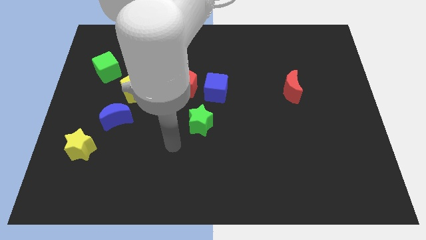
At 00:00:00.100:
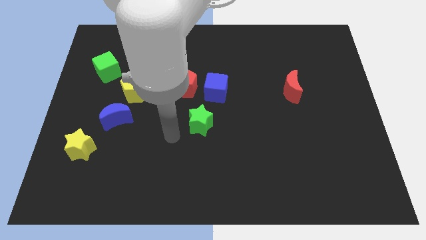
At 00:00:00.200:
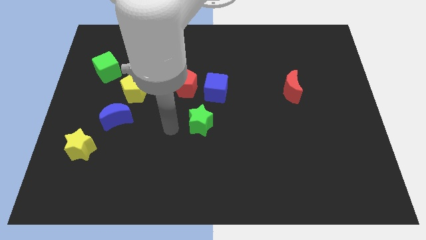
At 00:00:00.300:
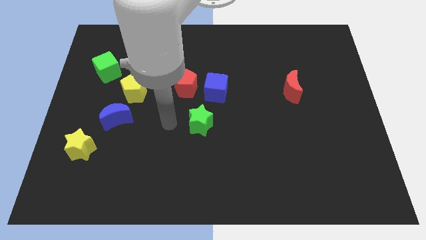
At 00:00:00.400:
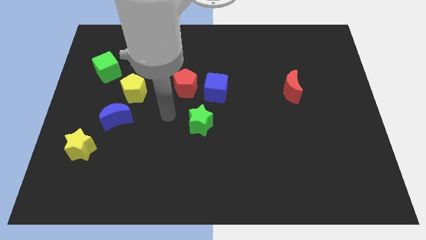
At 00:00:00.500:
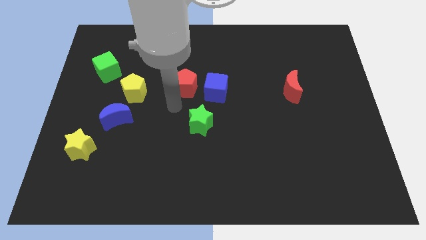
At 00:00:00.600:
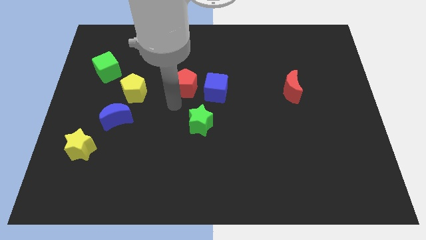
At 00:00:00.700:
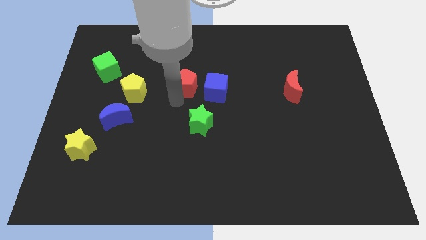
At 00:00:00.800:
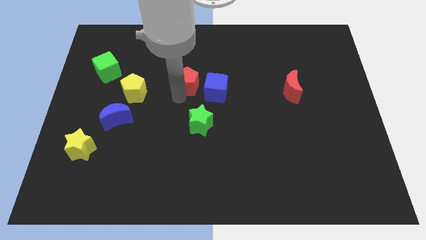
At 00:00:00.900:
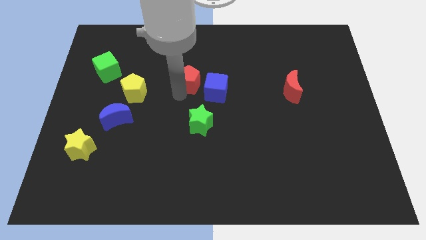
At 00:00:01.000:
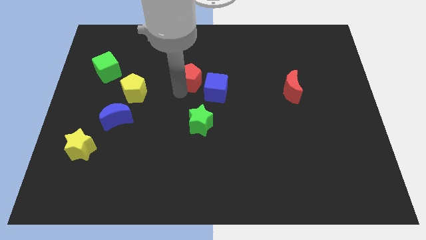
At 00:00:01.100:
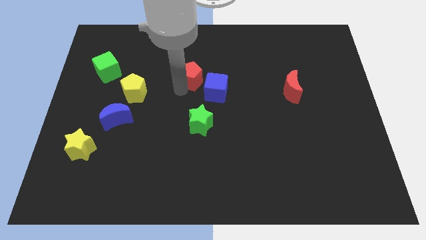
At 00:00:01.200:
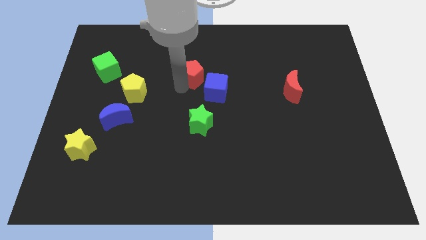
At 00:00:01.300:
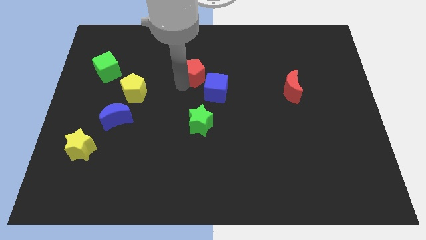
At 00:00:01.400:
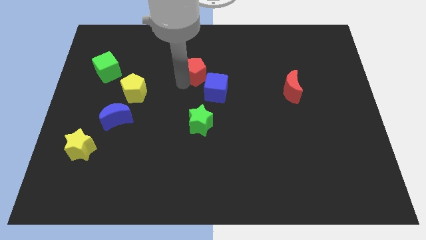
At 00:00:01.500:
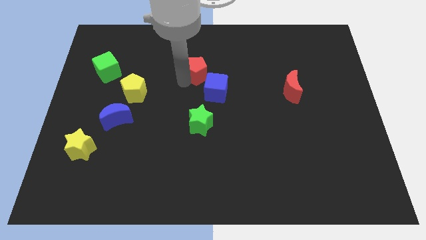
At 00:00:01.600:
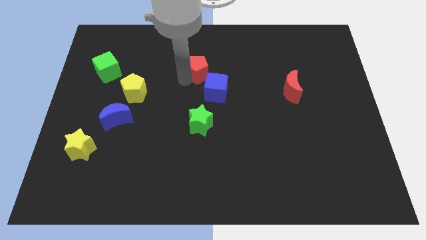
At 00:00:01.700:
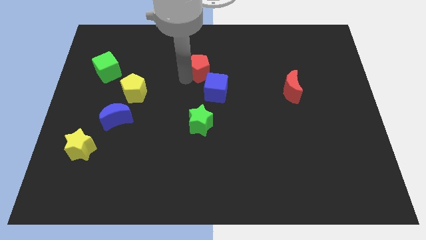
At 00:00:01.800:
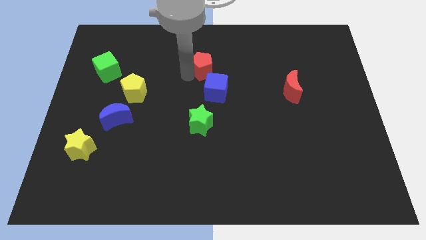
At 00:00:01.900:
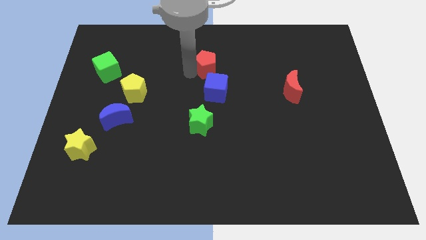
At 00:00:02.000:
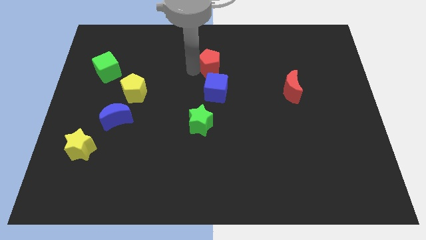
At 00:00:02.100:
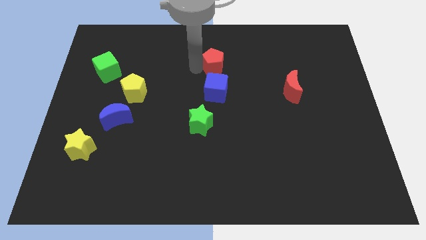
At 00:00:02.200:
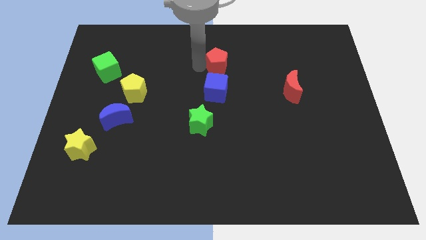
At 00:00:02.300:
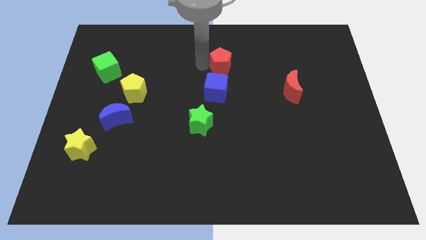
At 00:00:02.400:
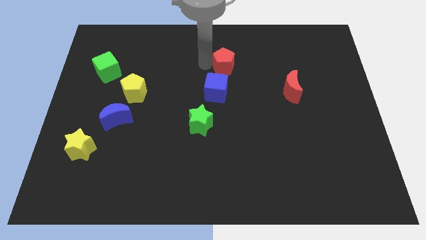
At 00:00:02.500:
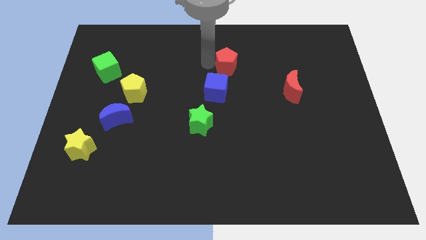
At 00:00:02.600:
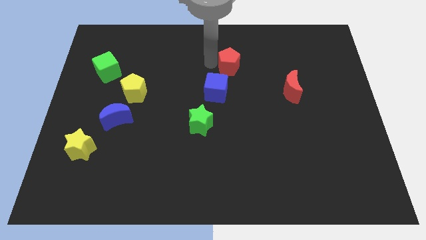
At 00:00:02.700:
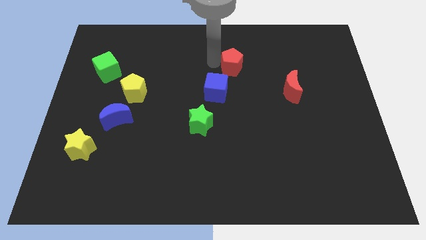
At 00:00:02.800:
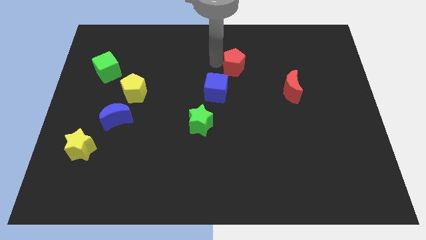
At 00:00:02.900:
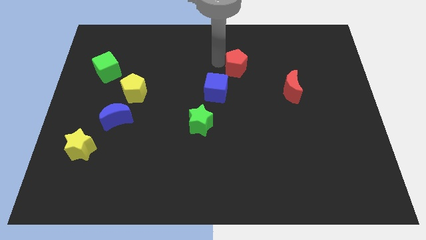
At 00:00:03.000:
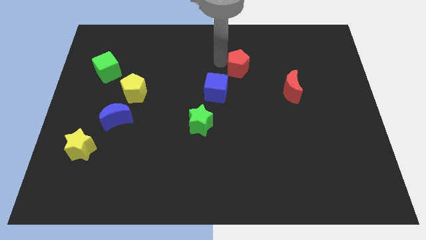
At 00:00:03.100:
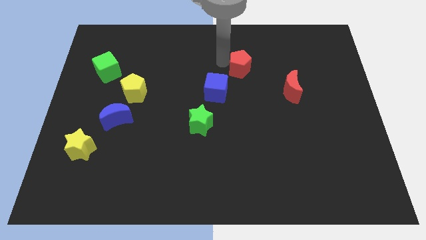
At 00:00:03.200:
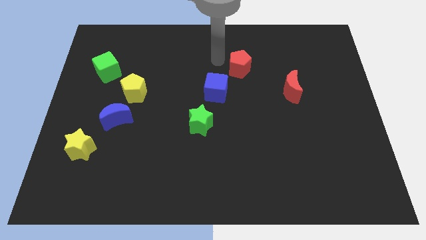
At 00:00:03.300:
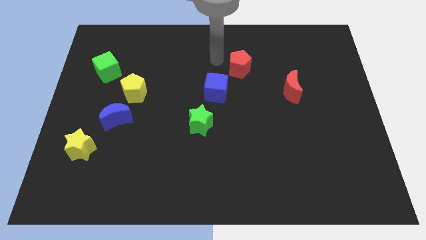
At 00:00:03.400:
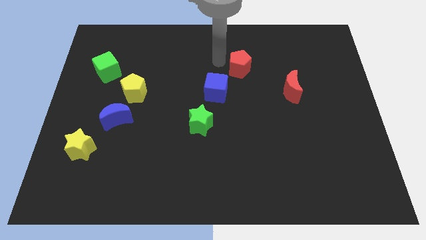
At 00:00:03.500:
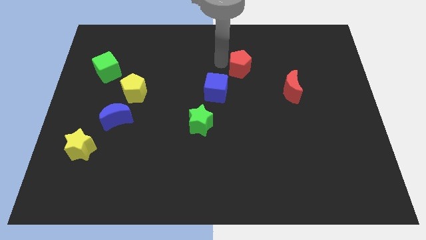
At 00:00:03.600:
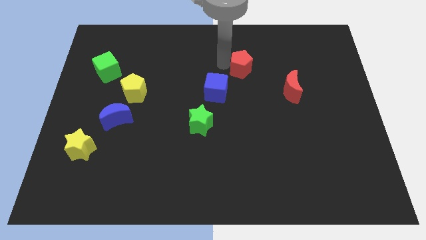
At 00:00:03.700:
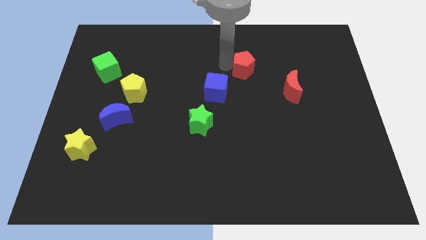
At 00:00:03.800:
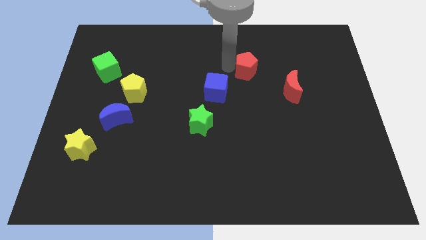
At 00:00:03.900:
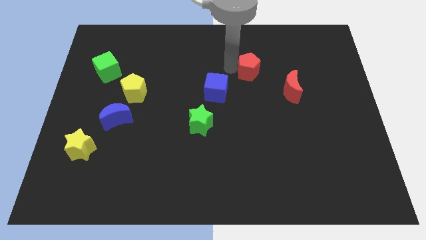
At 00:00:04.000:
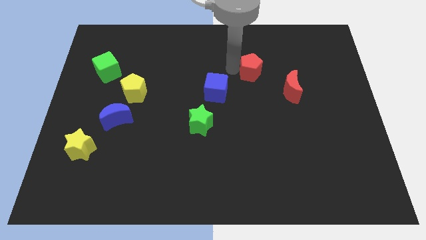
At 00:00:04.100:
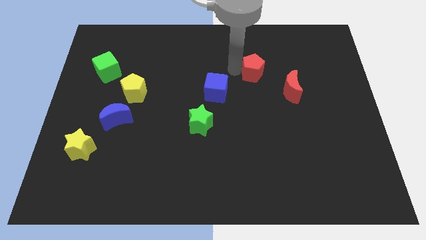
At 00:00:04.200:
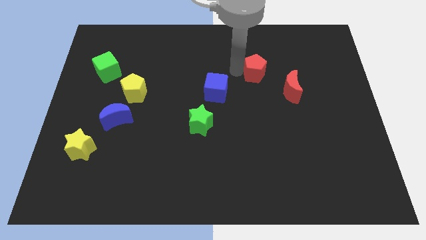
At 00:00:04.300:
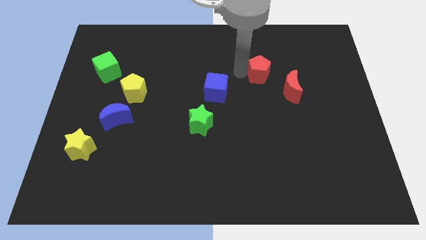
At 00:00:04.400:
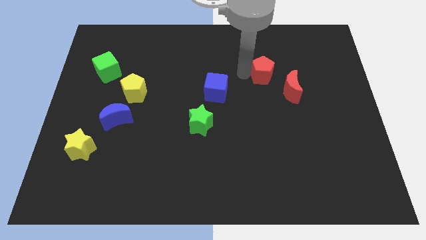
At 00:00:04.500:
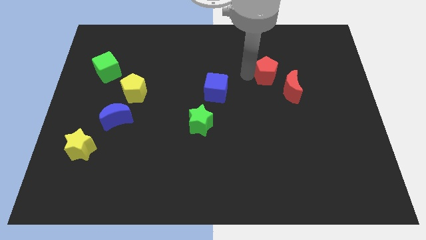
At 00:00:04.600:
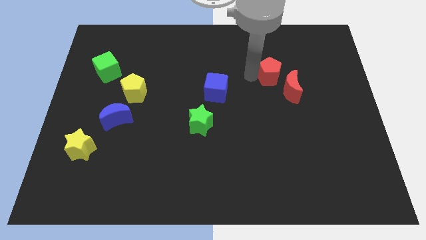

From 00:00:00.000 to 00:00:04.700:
move the red pentagon to the right

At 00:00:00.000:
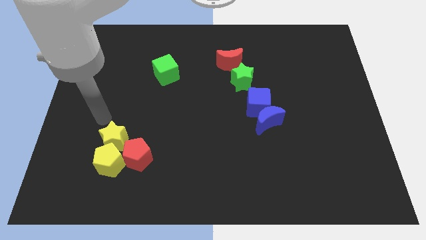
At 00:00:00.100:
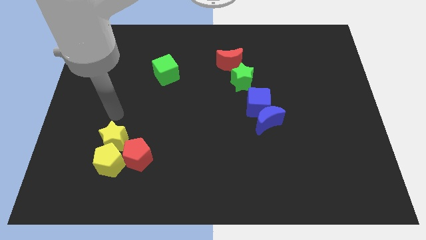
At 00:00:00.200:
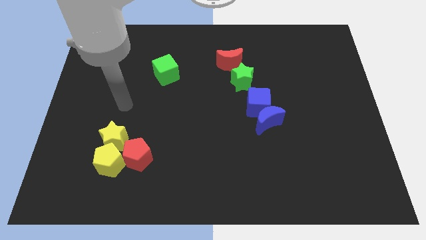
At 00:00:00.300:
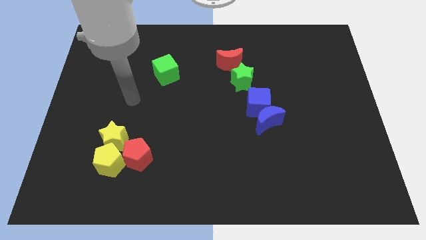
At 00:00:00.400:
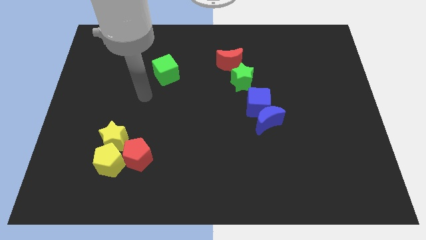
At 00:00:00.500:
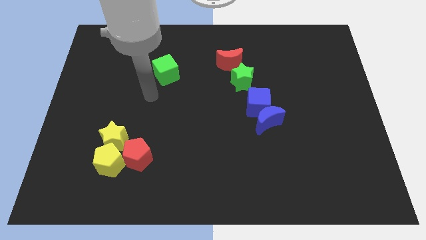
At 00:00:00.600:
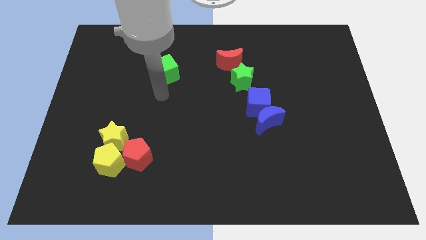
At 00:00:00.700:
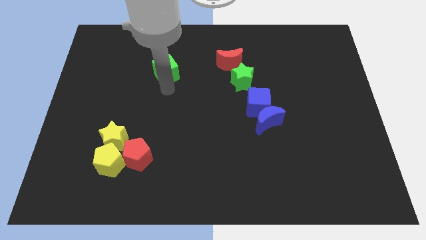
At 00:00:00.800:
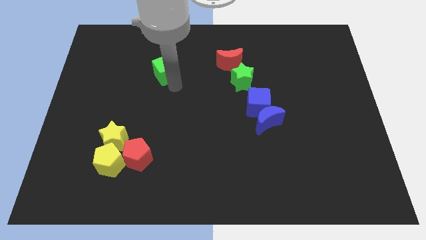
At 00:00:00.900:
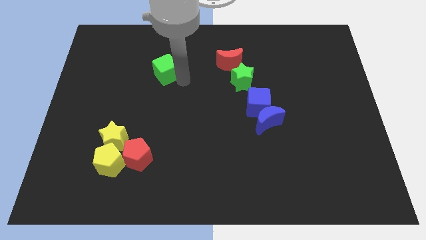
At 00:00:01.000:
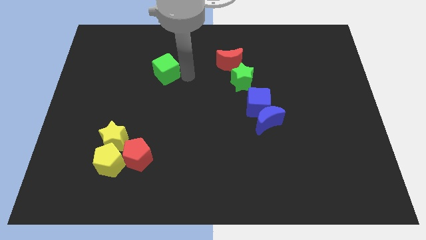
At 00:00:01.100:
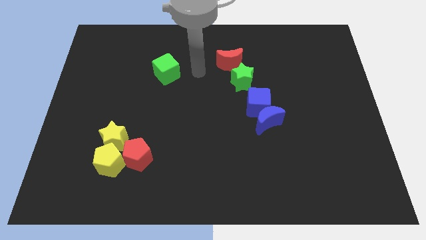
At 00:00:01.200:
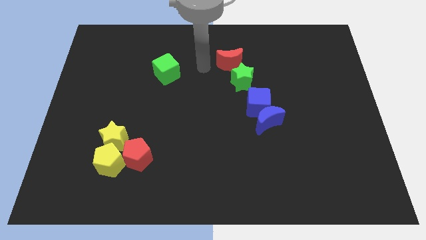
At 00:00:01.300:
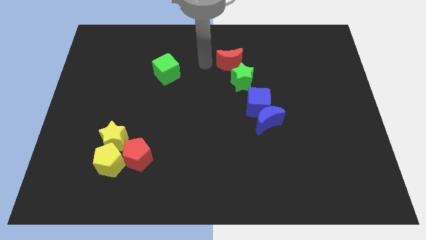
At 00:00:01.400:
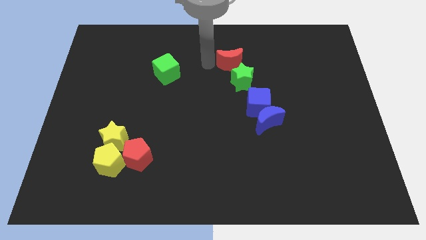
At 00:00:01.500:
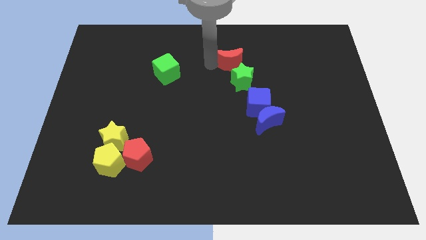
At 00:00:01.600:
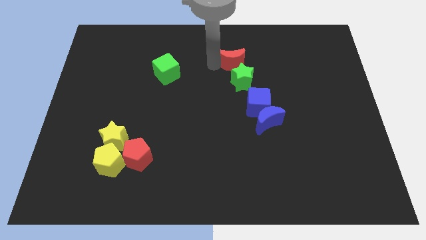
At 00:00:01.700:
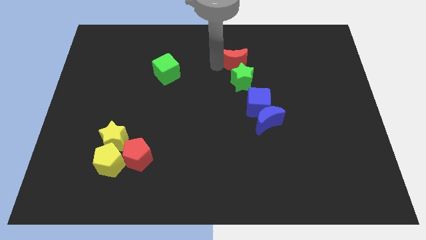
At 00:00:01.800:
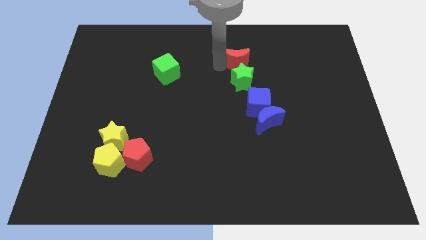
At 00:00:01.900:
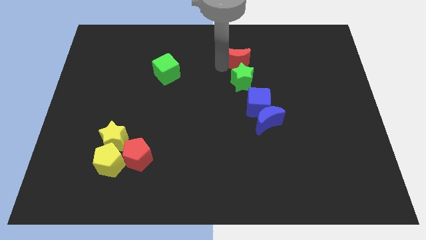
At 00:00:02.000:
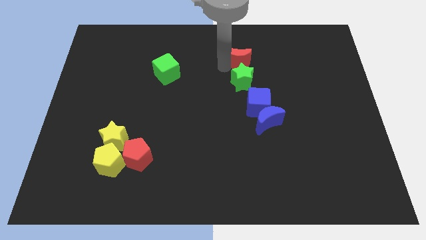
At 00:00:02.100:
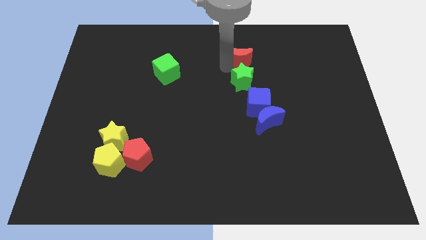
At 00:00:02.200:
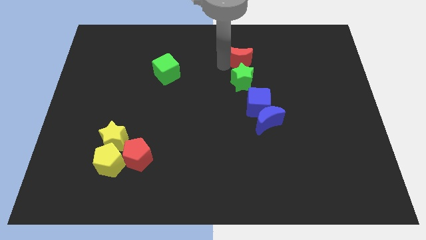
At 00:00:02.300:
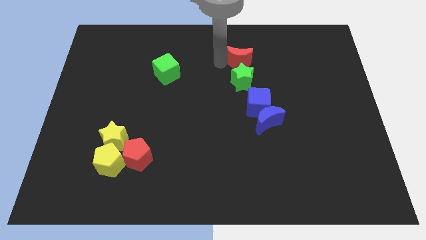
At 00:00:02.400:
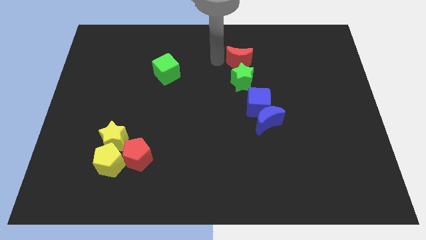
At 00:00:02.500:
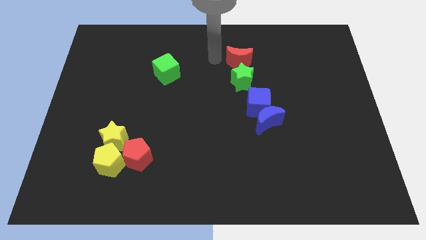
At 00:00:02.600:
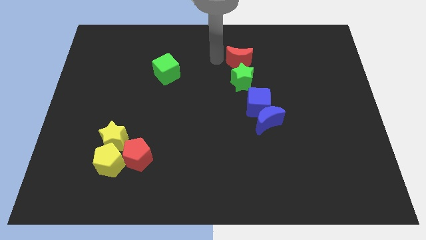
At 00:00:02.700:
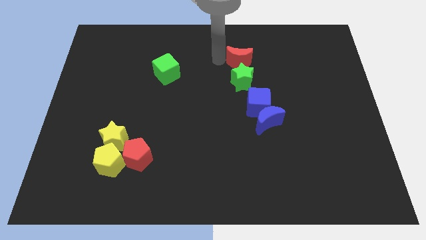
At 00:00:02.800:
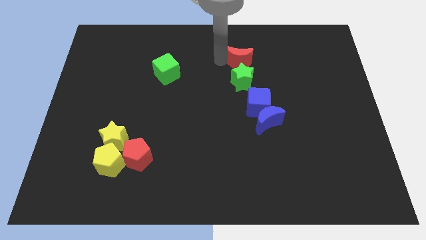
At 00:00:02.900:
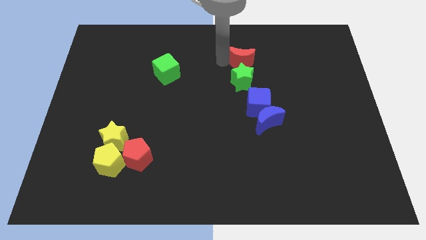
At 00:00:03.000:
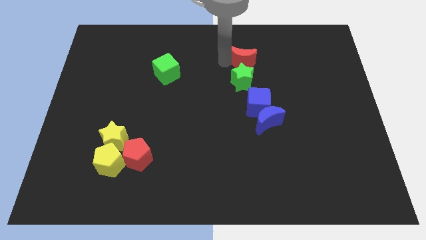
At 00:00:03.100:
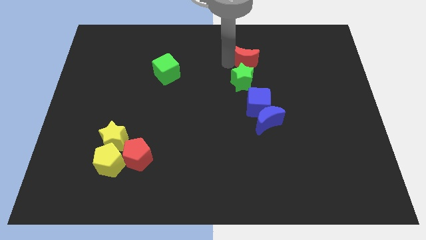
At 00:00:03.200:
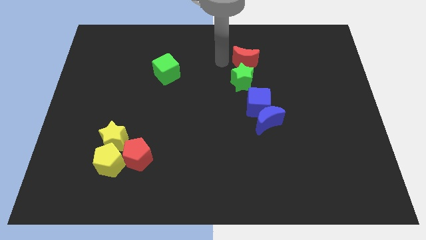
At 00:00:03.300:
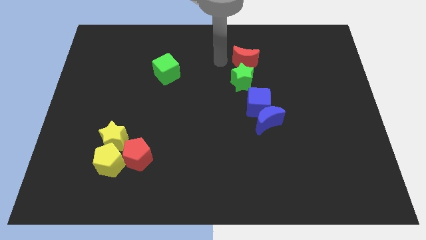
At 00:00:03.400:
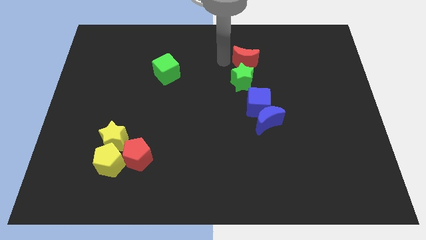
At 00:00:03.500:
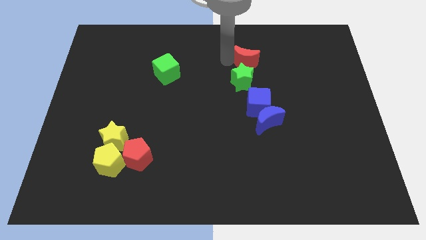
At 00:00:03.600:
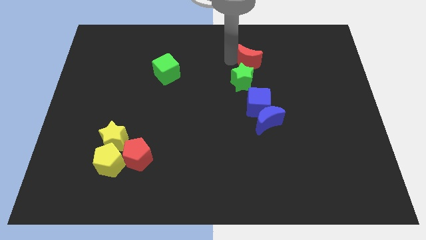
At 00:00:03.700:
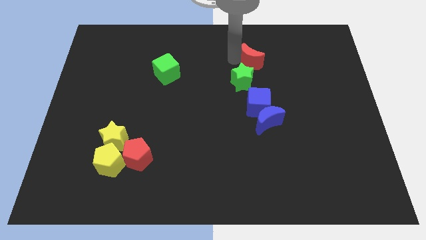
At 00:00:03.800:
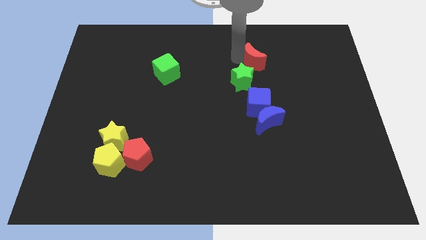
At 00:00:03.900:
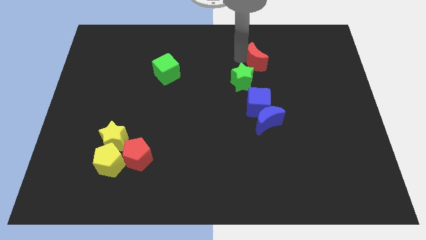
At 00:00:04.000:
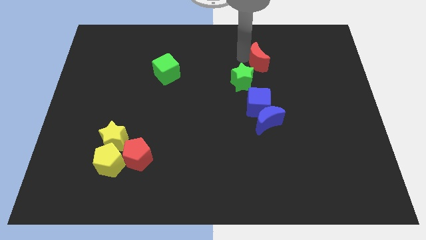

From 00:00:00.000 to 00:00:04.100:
move the red moon to the right a little bit
